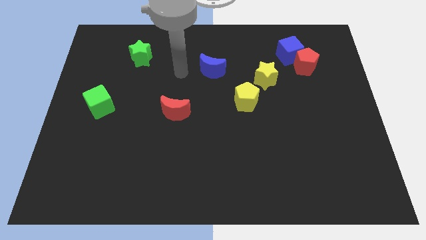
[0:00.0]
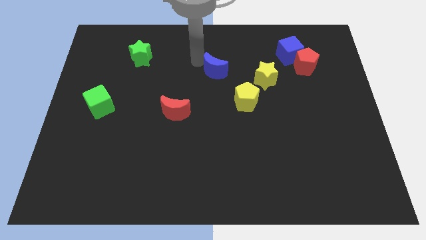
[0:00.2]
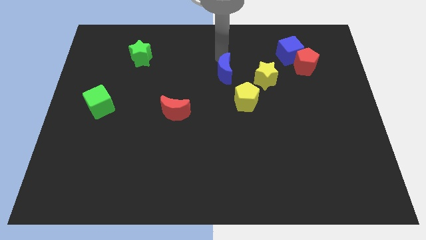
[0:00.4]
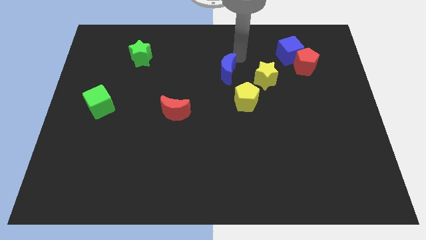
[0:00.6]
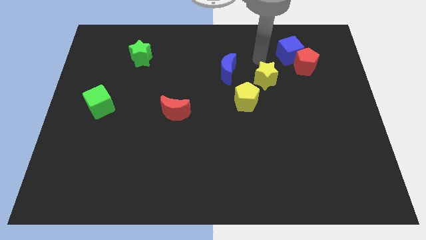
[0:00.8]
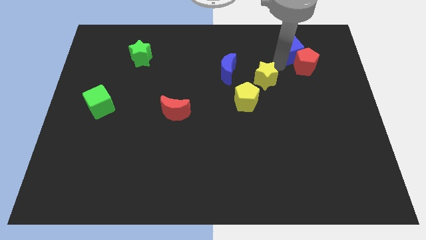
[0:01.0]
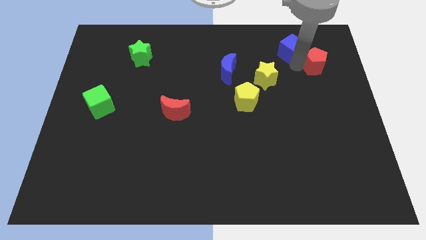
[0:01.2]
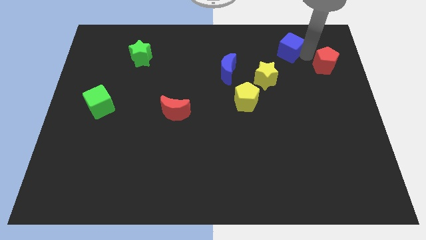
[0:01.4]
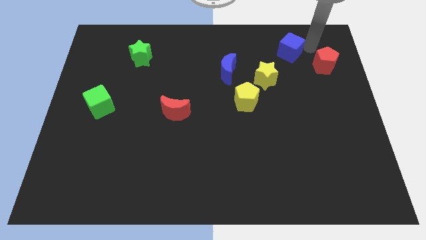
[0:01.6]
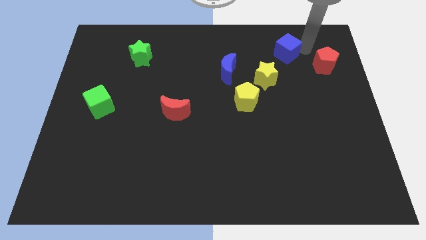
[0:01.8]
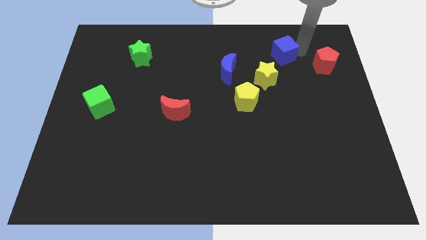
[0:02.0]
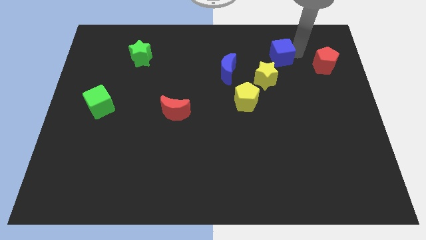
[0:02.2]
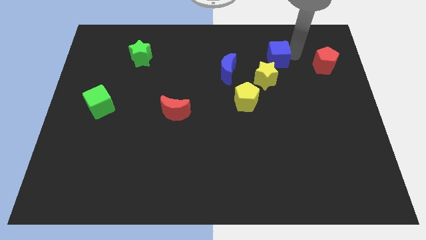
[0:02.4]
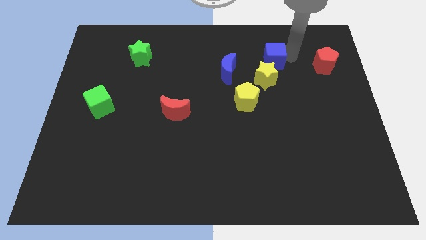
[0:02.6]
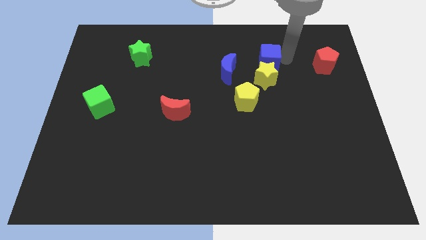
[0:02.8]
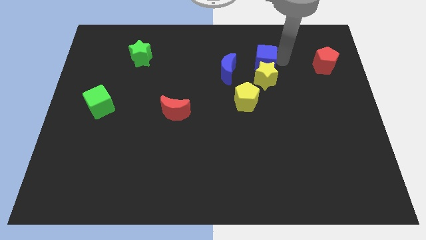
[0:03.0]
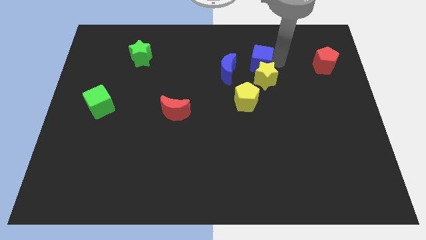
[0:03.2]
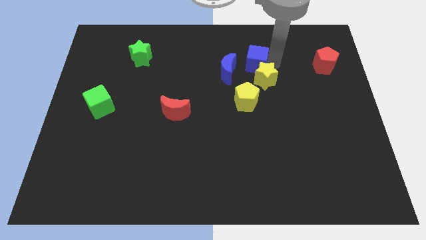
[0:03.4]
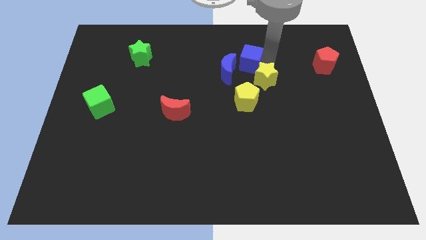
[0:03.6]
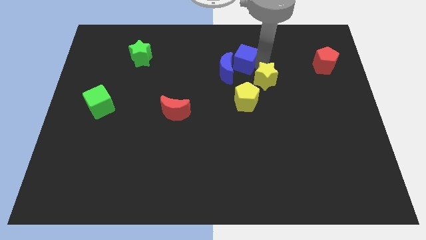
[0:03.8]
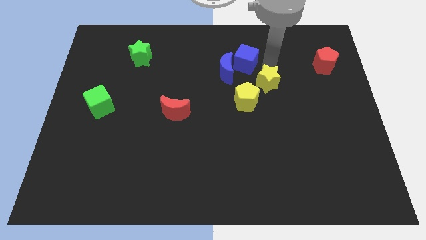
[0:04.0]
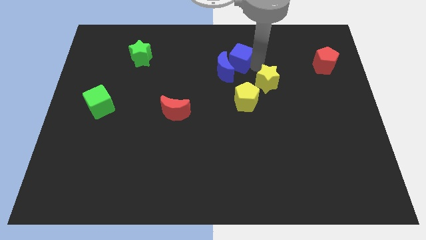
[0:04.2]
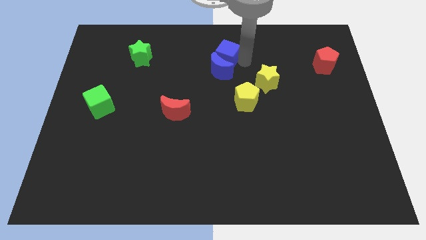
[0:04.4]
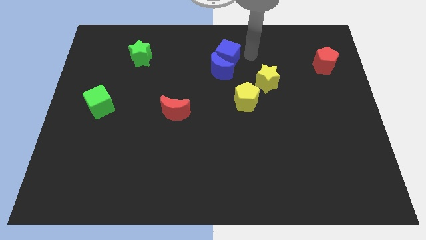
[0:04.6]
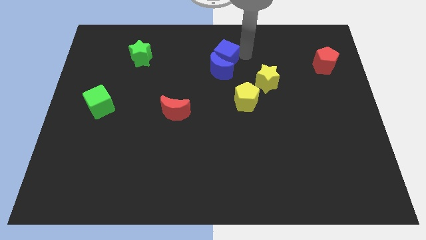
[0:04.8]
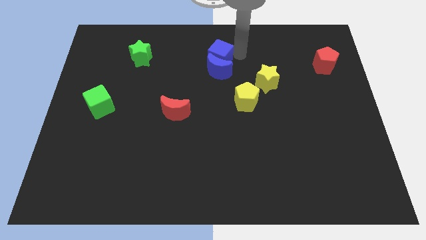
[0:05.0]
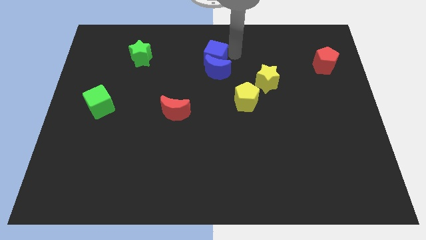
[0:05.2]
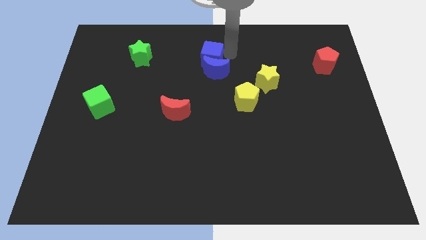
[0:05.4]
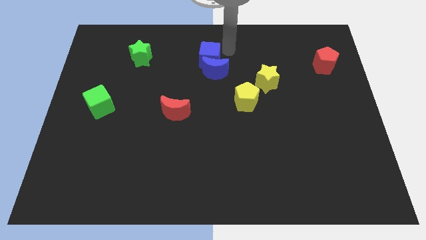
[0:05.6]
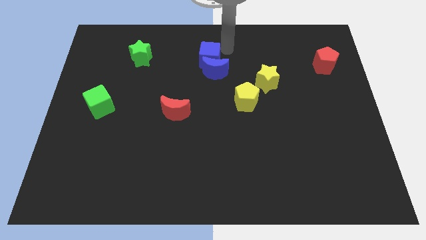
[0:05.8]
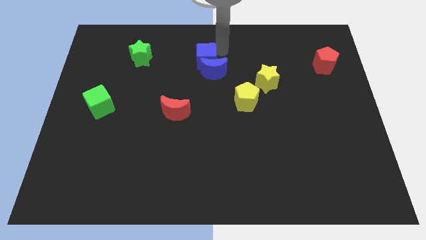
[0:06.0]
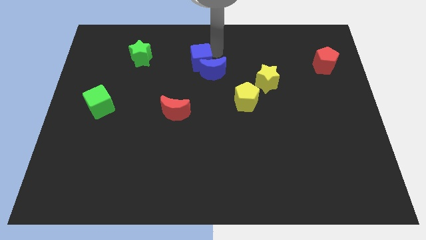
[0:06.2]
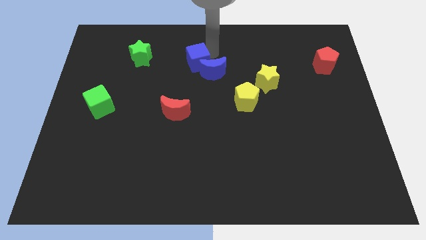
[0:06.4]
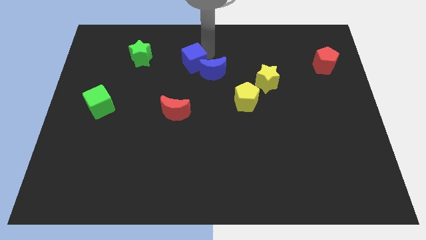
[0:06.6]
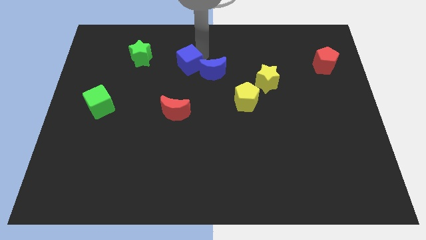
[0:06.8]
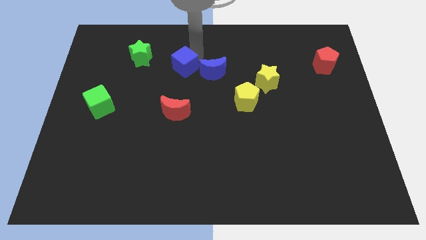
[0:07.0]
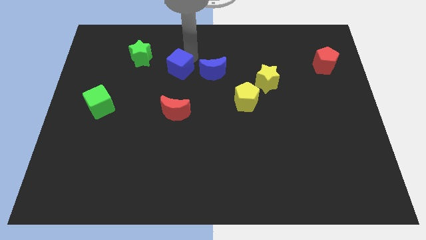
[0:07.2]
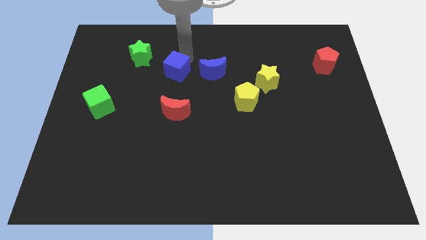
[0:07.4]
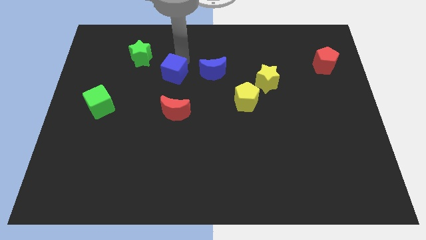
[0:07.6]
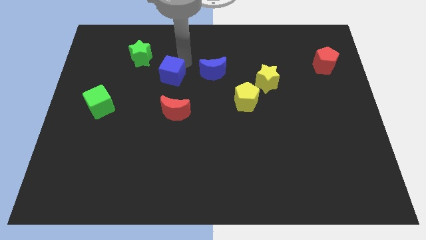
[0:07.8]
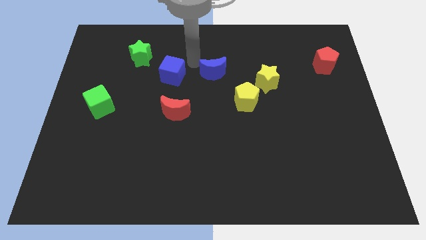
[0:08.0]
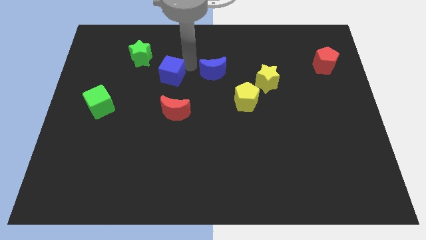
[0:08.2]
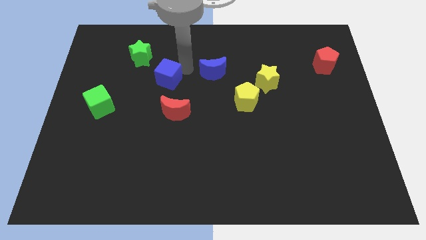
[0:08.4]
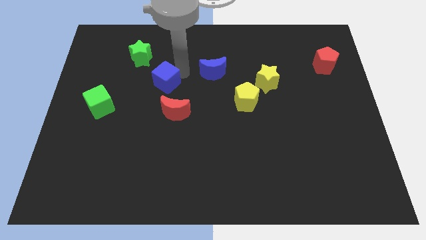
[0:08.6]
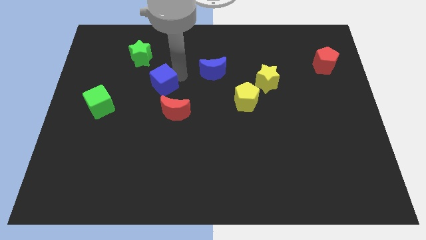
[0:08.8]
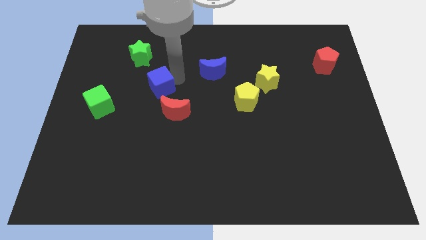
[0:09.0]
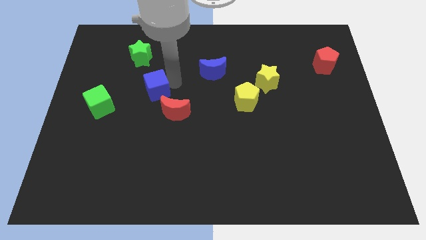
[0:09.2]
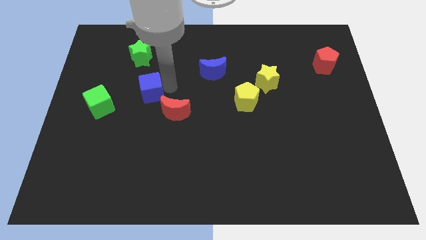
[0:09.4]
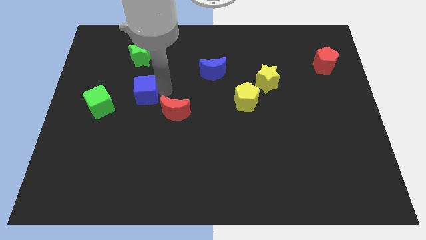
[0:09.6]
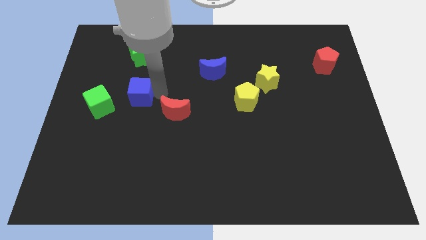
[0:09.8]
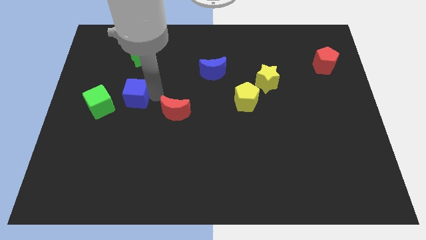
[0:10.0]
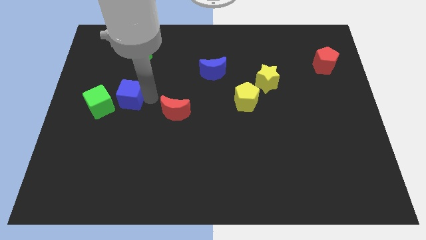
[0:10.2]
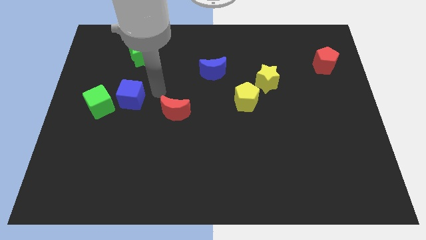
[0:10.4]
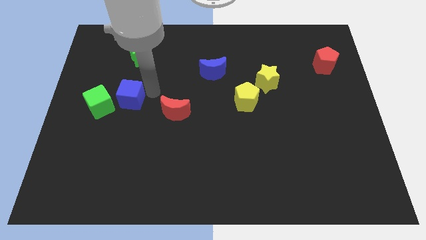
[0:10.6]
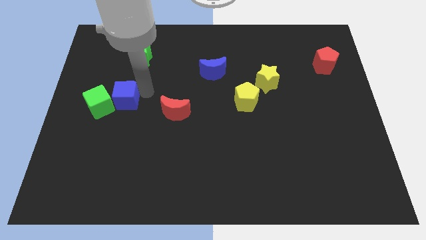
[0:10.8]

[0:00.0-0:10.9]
move the blue cube close to the green cube

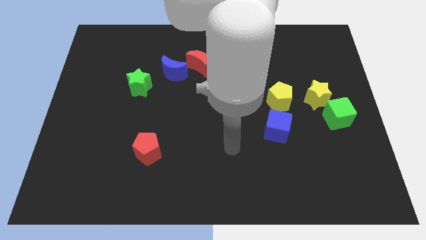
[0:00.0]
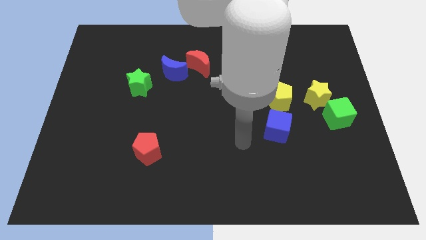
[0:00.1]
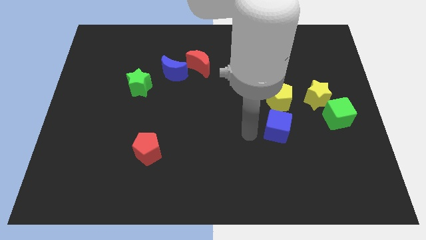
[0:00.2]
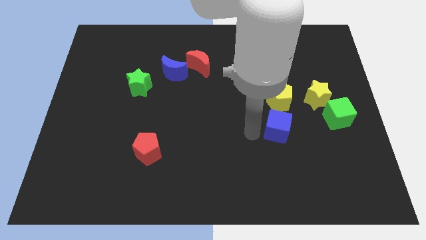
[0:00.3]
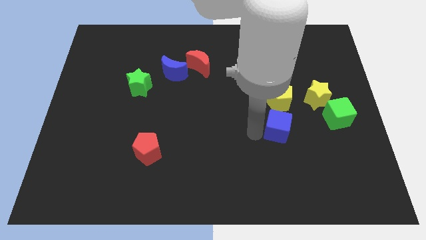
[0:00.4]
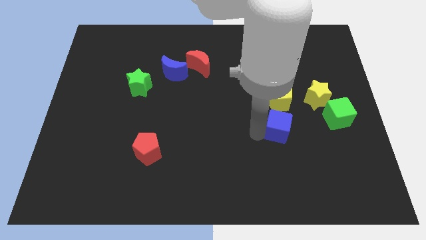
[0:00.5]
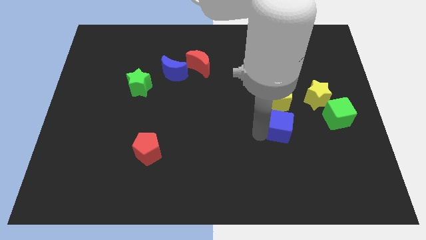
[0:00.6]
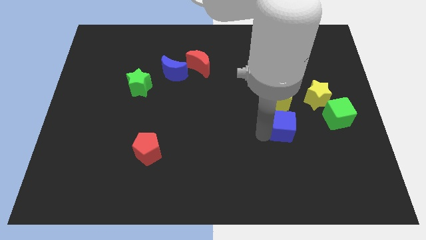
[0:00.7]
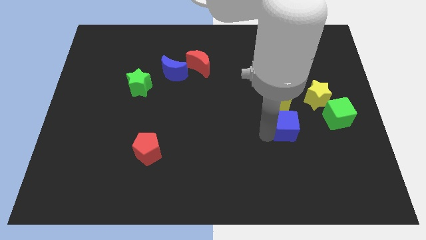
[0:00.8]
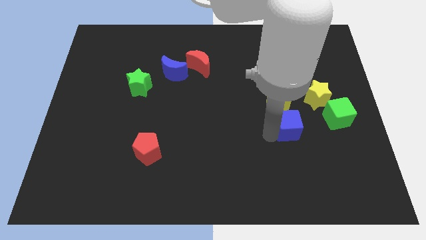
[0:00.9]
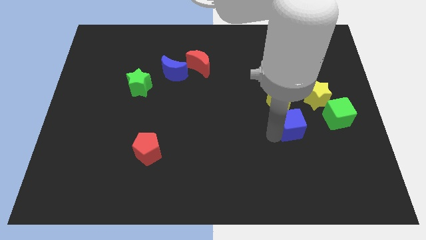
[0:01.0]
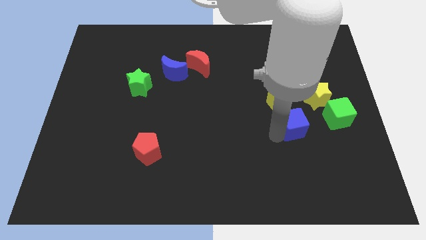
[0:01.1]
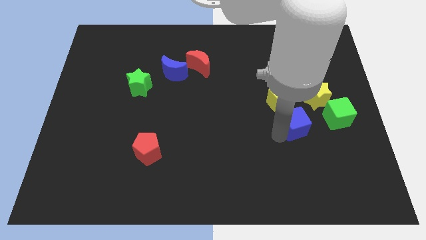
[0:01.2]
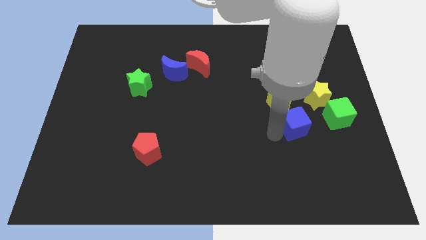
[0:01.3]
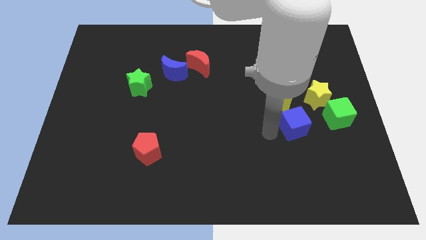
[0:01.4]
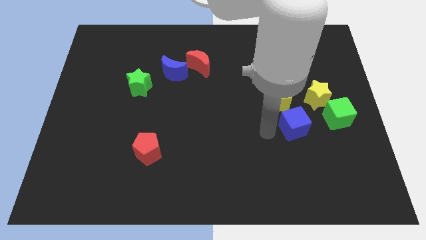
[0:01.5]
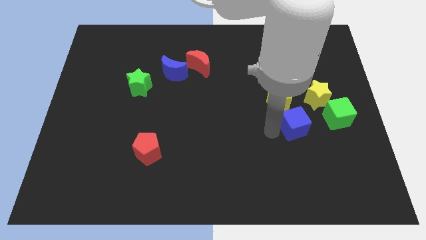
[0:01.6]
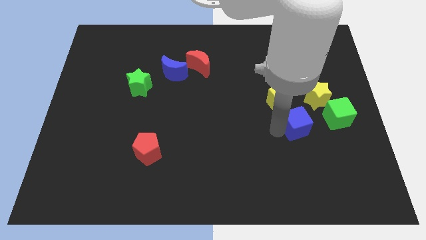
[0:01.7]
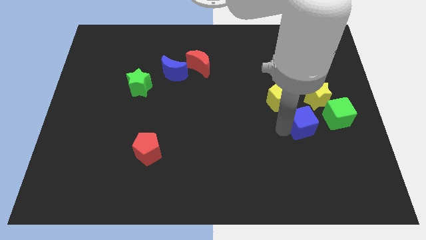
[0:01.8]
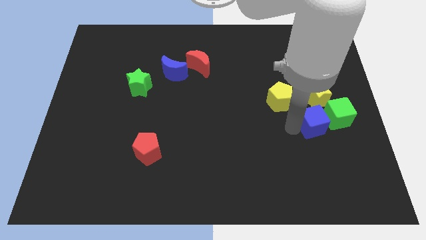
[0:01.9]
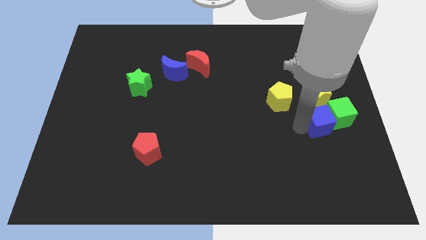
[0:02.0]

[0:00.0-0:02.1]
move the blue cube to the green cube
